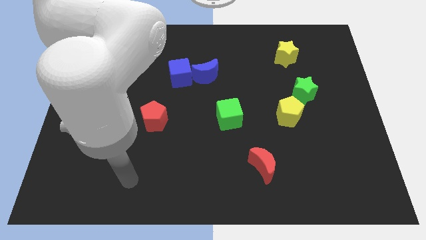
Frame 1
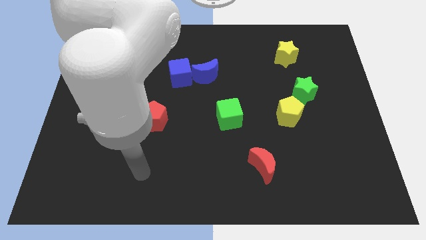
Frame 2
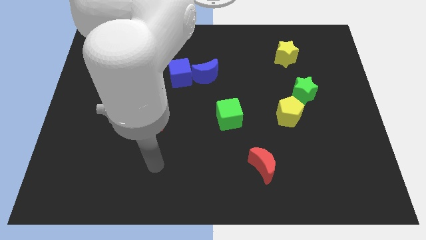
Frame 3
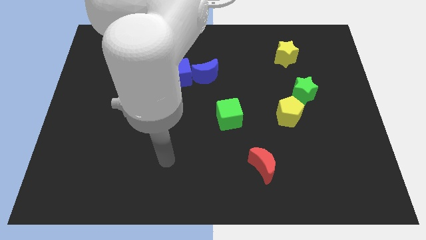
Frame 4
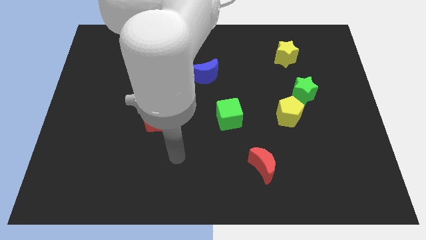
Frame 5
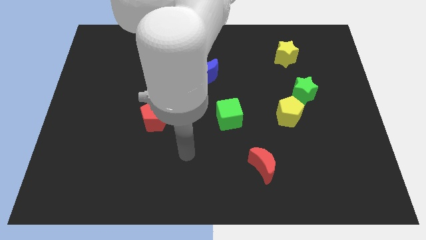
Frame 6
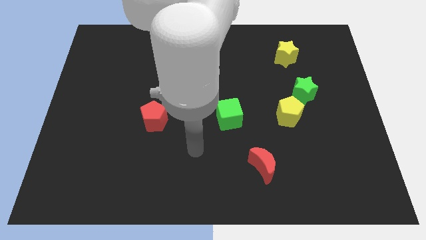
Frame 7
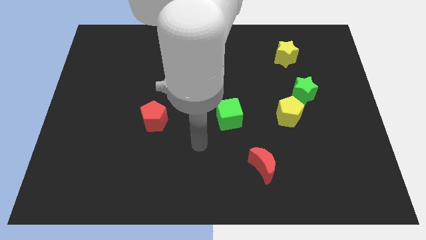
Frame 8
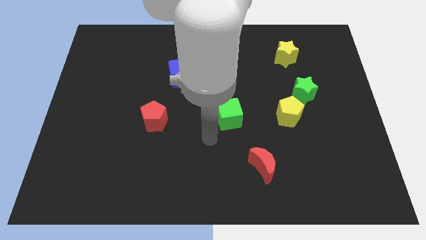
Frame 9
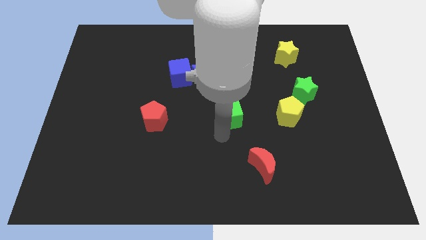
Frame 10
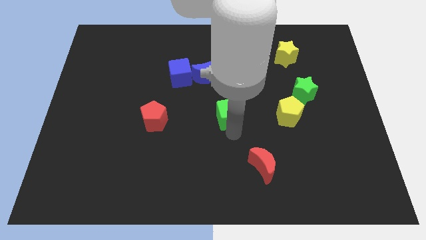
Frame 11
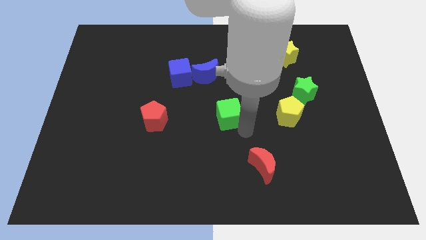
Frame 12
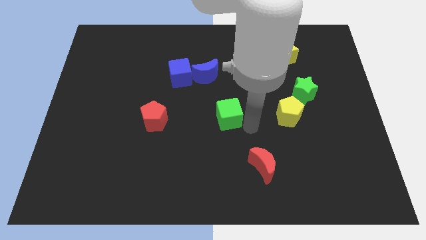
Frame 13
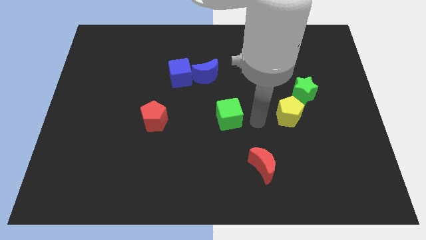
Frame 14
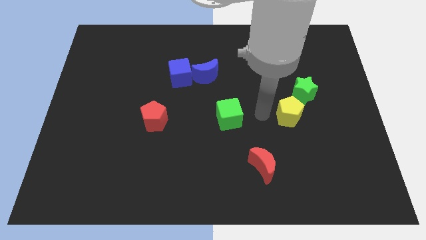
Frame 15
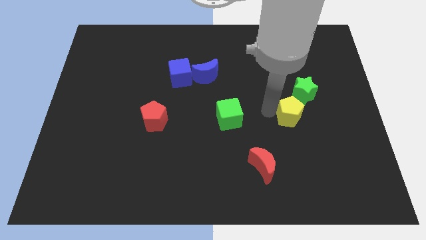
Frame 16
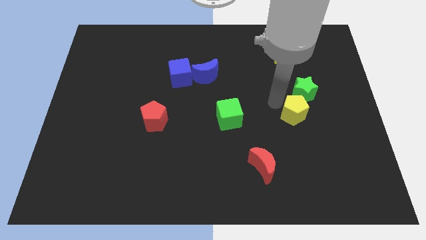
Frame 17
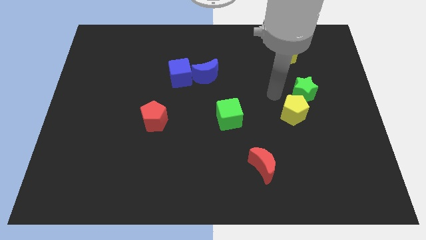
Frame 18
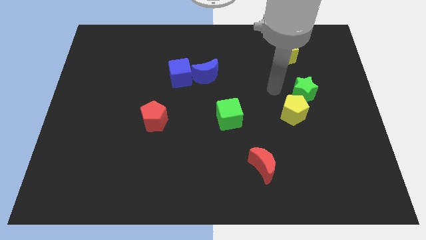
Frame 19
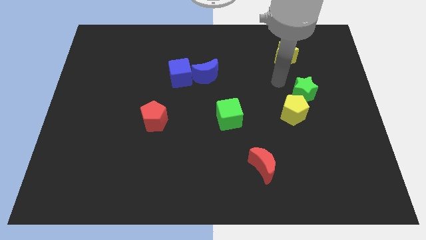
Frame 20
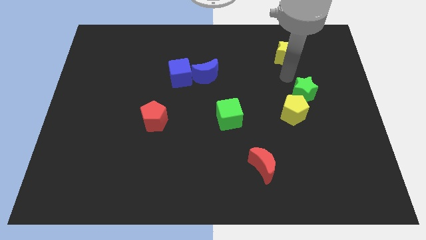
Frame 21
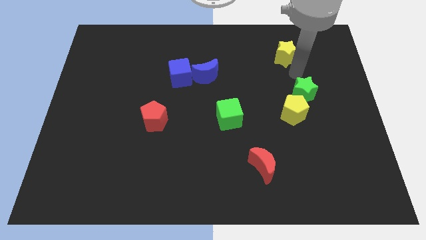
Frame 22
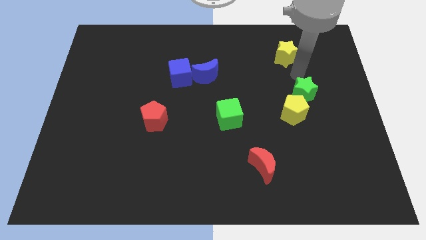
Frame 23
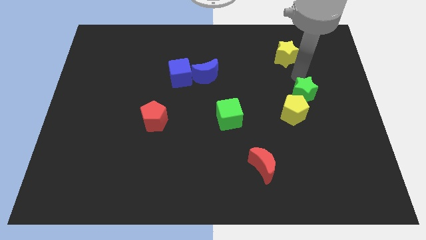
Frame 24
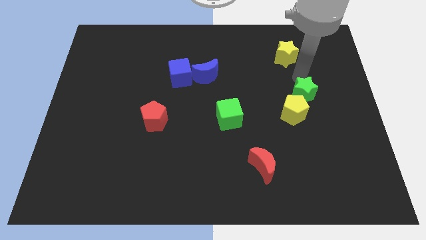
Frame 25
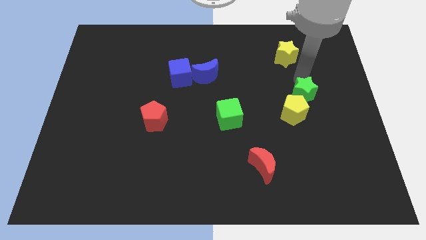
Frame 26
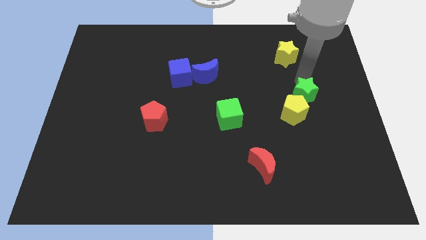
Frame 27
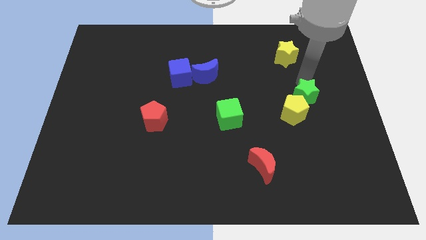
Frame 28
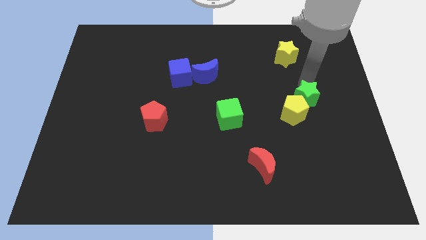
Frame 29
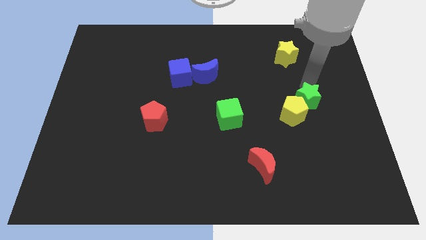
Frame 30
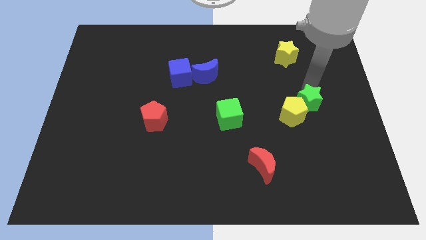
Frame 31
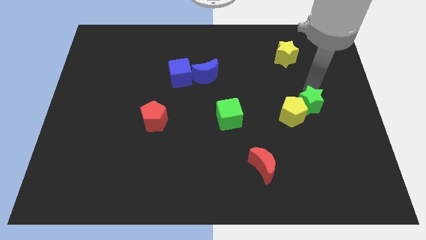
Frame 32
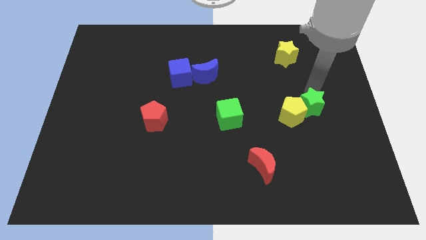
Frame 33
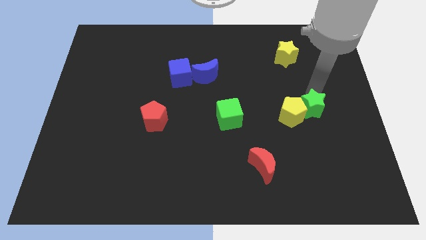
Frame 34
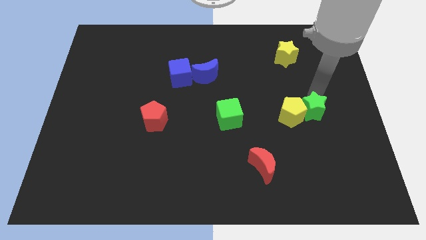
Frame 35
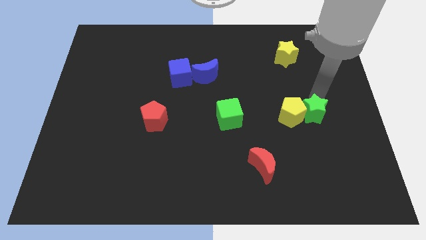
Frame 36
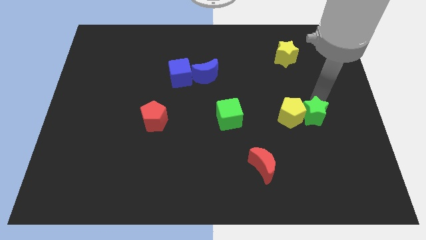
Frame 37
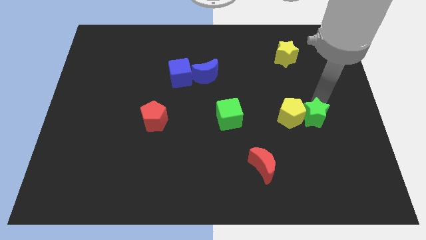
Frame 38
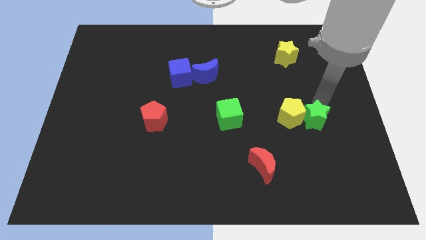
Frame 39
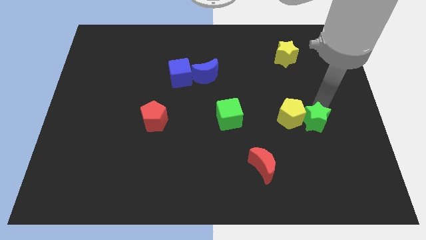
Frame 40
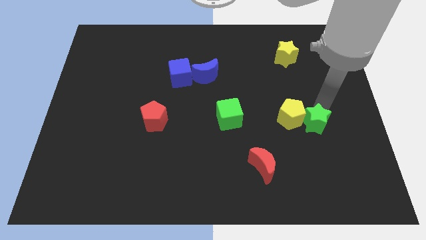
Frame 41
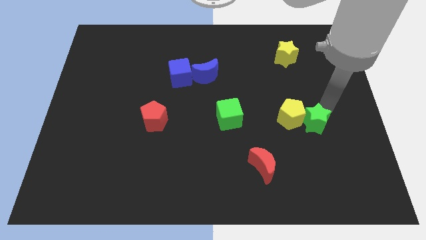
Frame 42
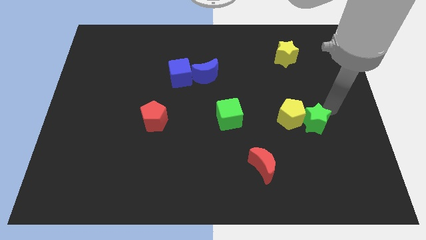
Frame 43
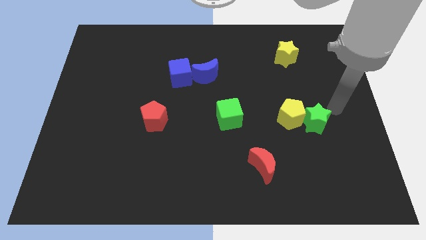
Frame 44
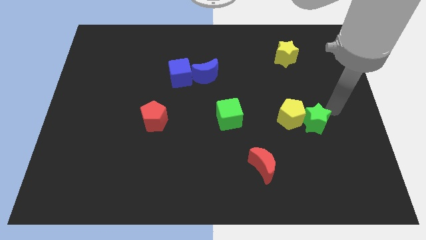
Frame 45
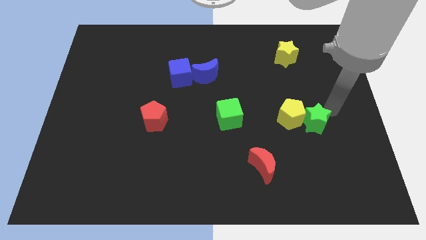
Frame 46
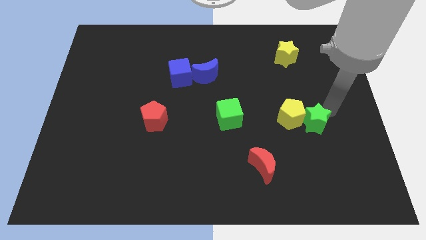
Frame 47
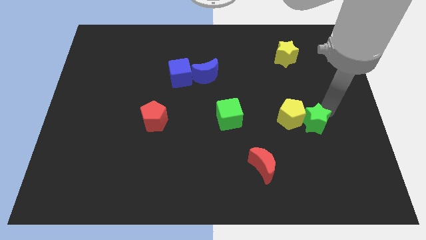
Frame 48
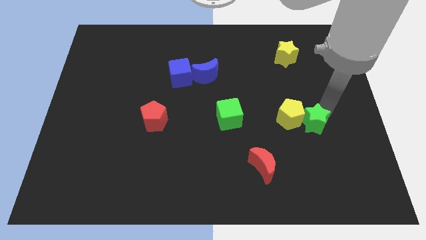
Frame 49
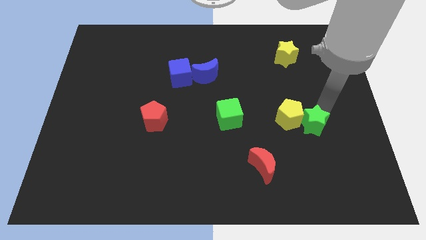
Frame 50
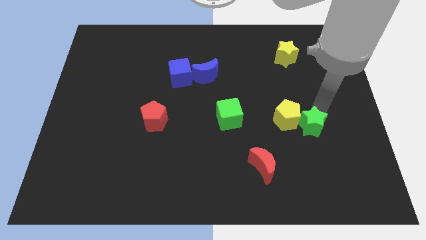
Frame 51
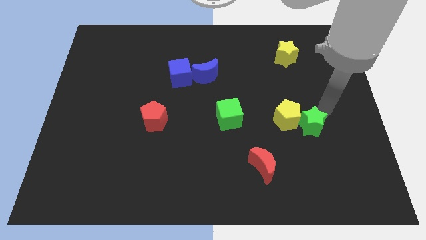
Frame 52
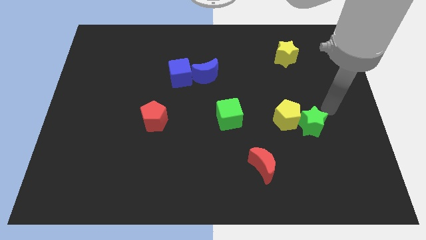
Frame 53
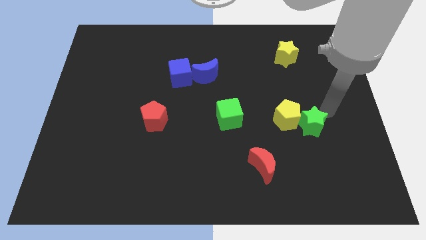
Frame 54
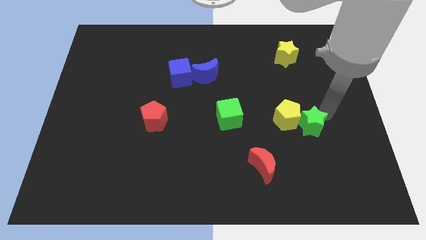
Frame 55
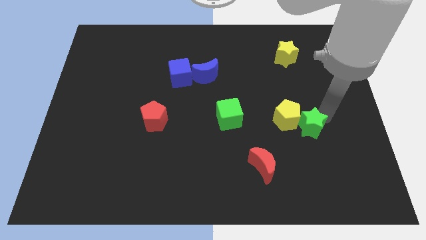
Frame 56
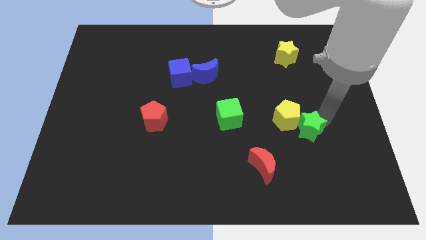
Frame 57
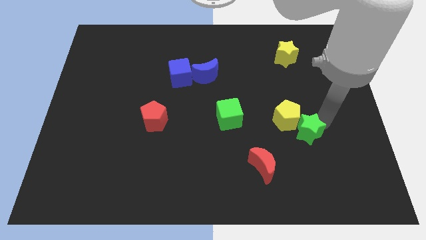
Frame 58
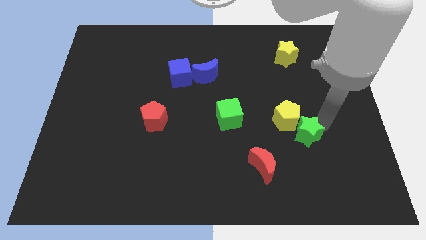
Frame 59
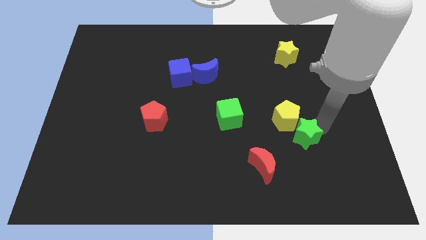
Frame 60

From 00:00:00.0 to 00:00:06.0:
put the green star to the top right of the red moon
